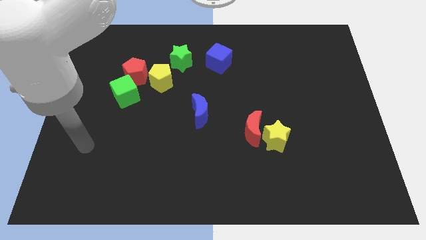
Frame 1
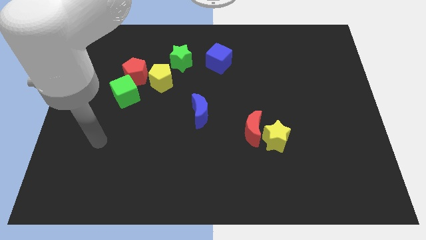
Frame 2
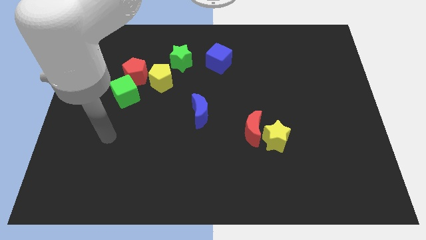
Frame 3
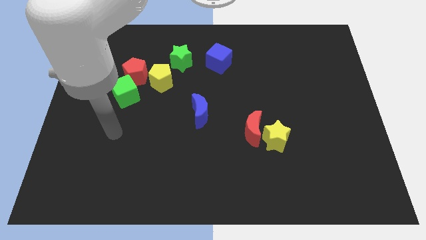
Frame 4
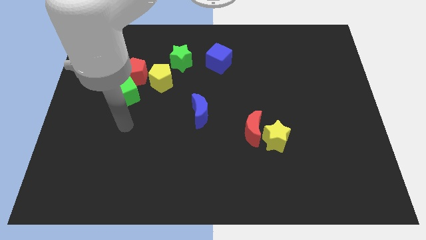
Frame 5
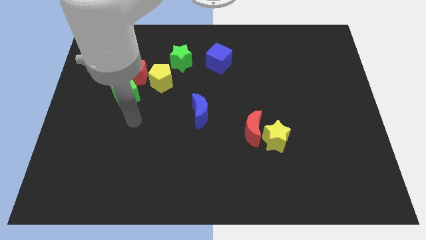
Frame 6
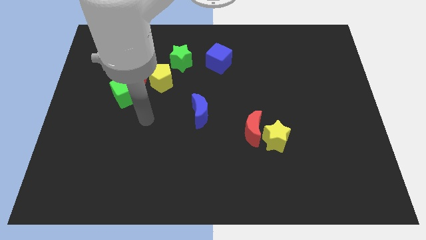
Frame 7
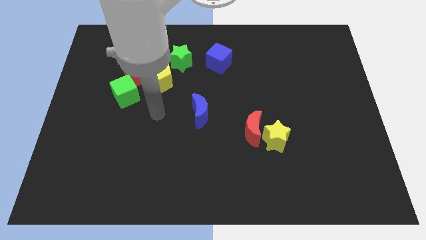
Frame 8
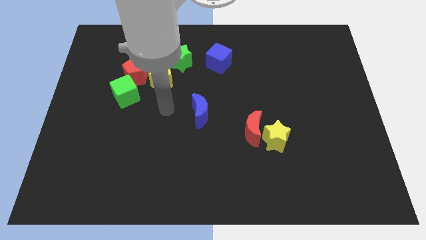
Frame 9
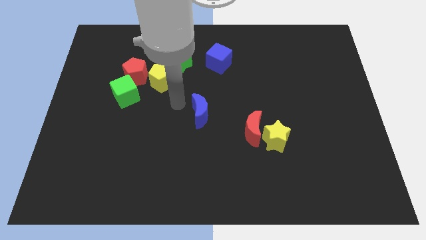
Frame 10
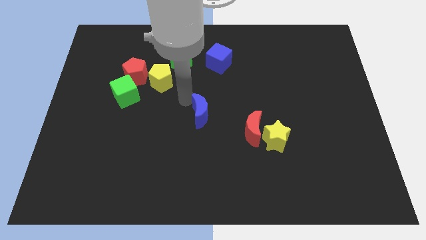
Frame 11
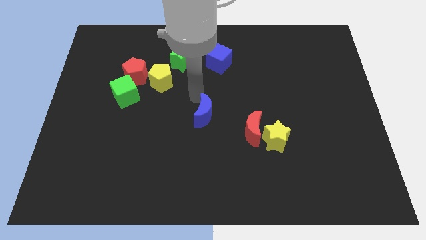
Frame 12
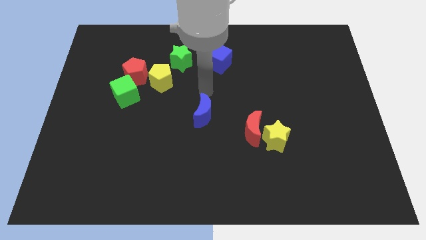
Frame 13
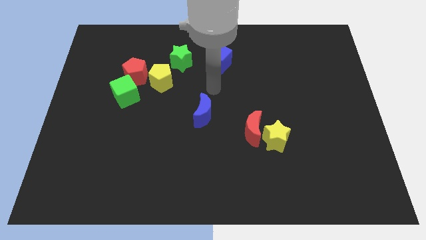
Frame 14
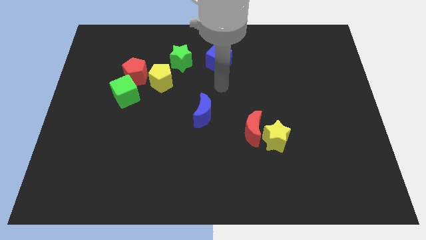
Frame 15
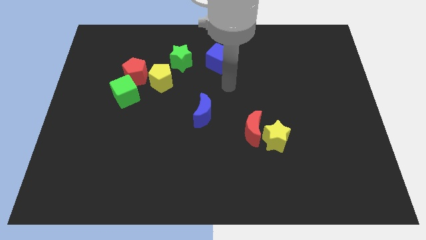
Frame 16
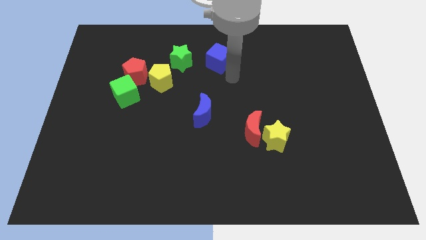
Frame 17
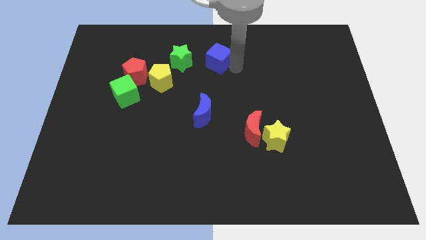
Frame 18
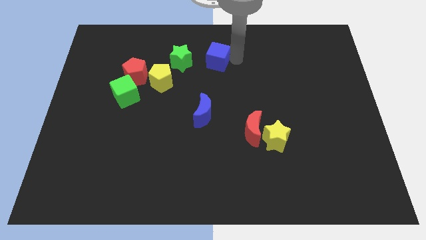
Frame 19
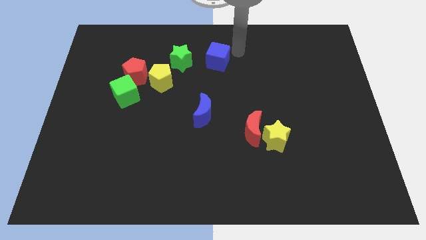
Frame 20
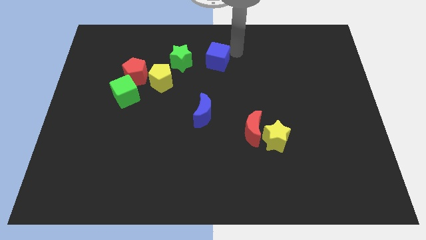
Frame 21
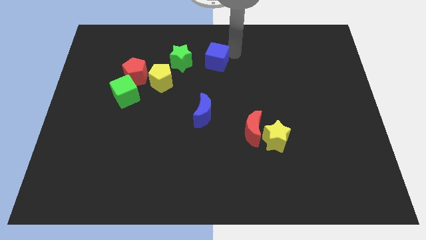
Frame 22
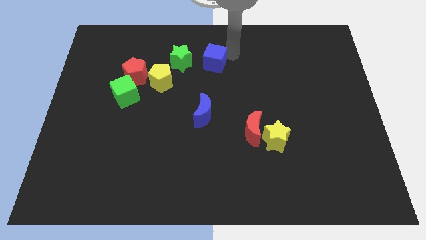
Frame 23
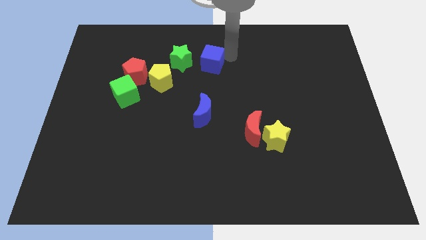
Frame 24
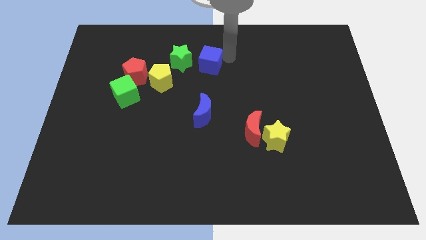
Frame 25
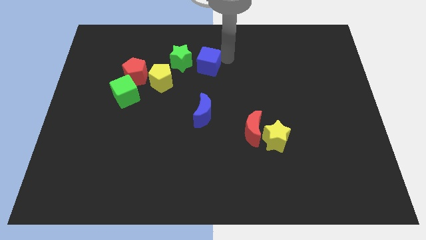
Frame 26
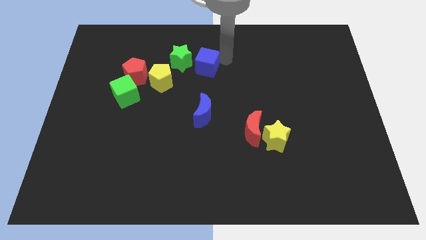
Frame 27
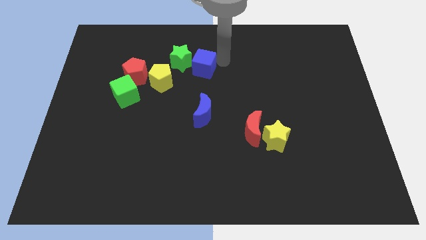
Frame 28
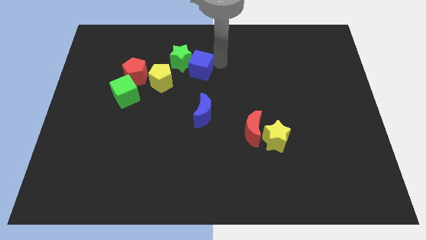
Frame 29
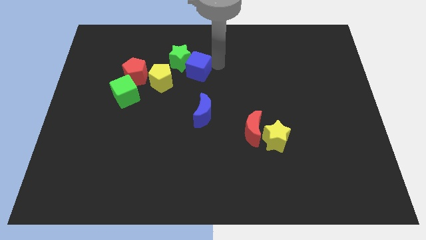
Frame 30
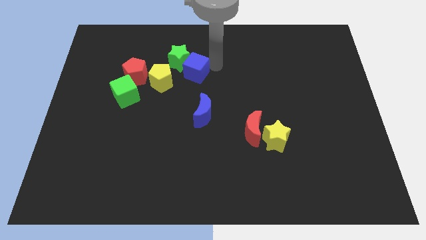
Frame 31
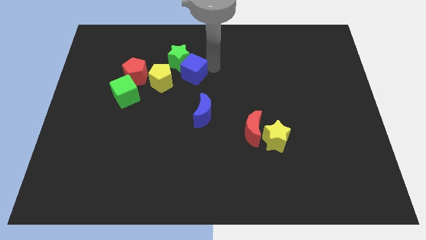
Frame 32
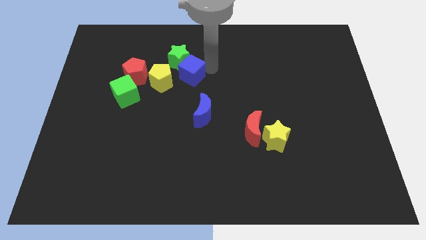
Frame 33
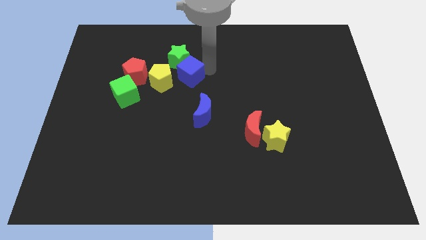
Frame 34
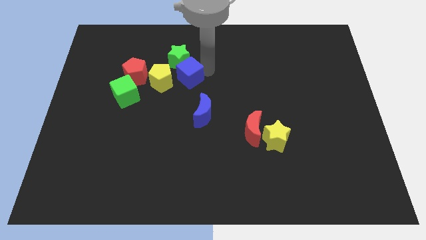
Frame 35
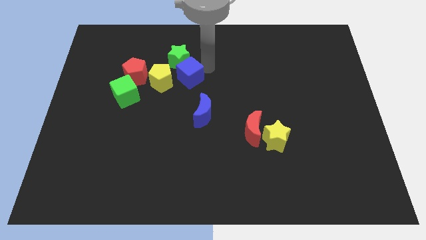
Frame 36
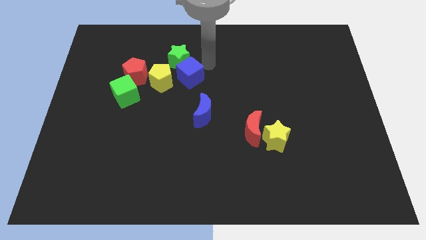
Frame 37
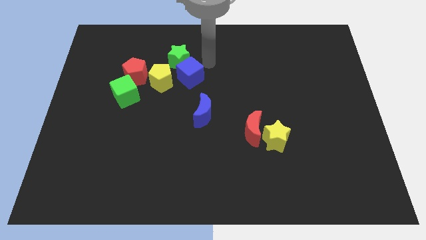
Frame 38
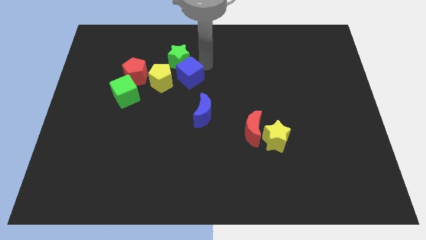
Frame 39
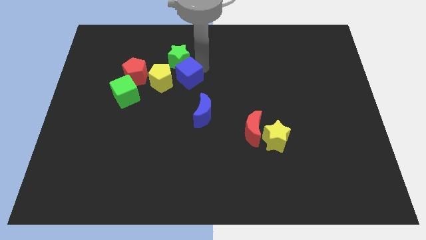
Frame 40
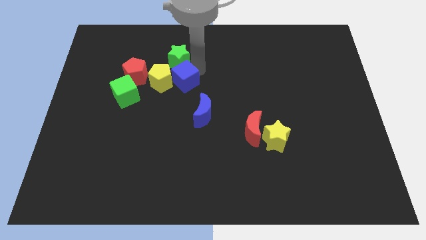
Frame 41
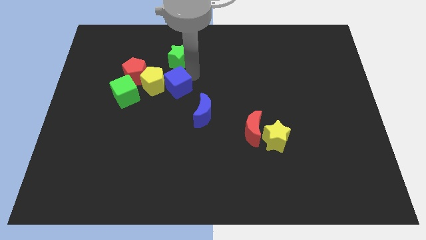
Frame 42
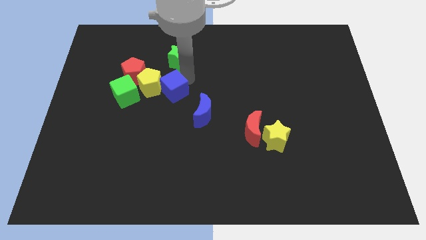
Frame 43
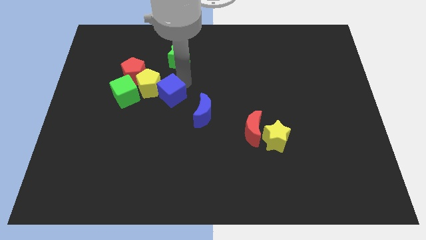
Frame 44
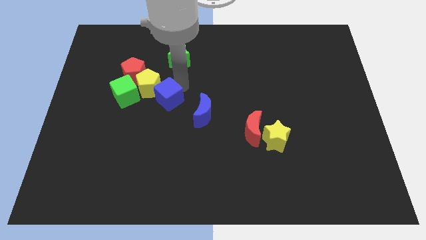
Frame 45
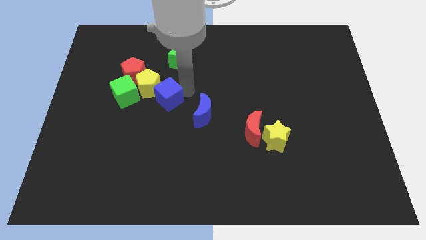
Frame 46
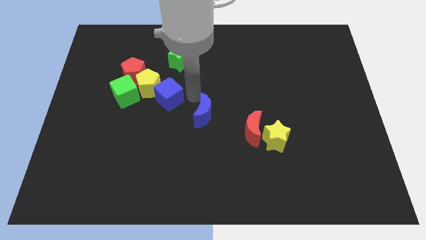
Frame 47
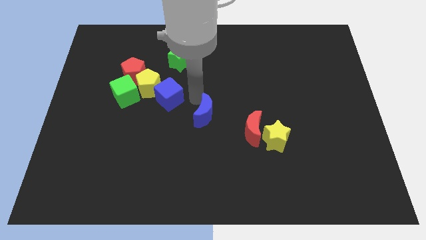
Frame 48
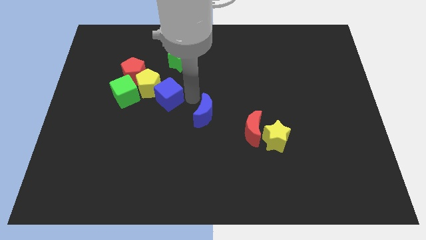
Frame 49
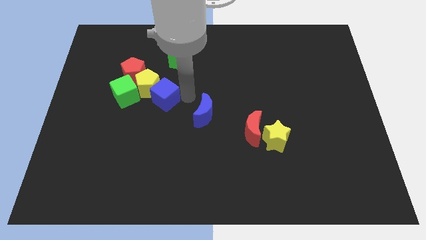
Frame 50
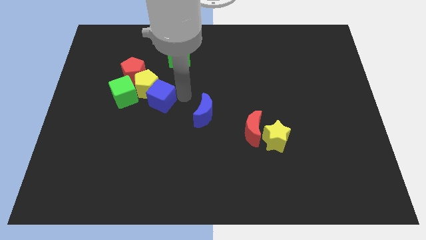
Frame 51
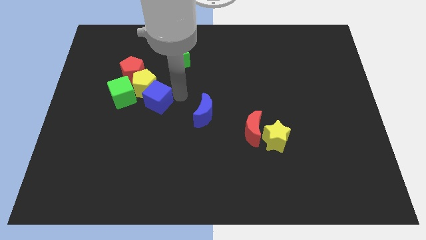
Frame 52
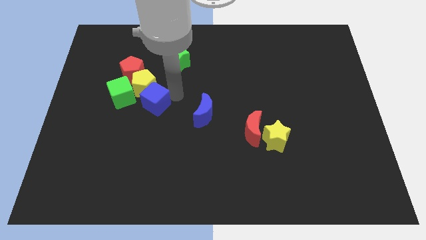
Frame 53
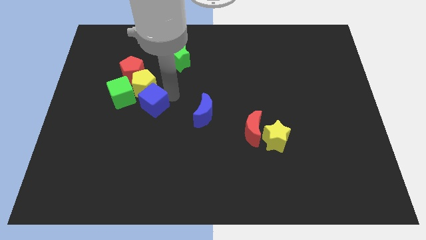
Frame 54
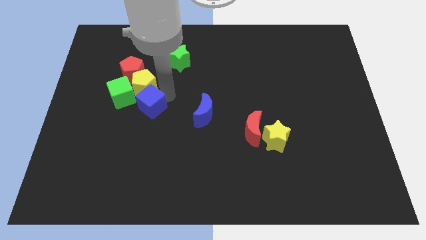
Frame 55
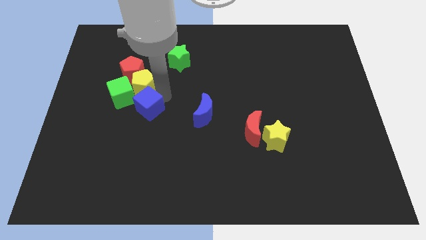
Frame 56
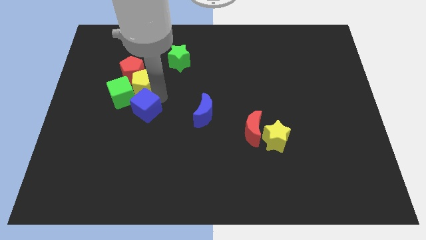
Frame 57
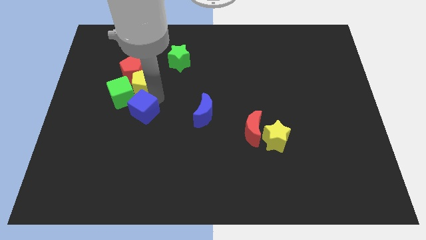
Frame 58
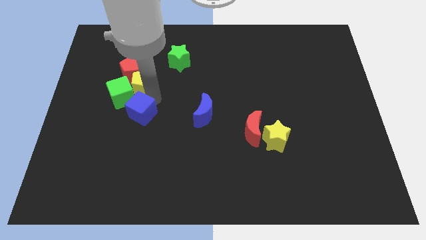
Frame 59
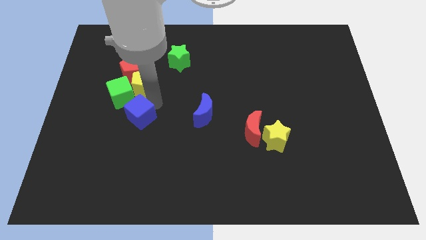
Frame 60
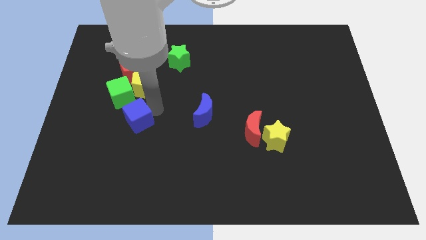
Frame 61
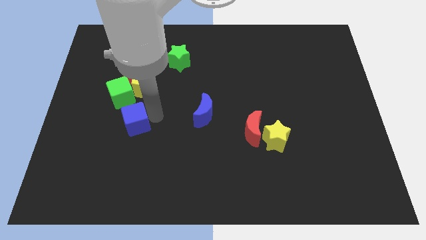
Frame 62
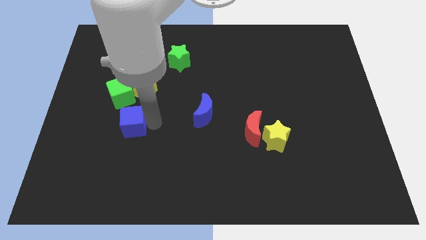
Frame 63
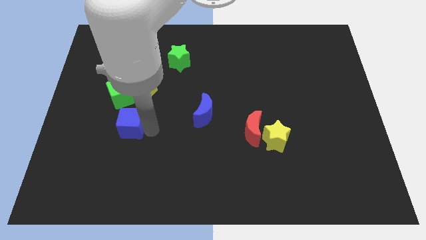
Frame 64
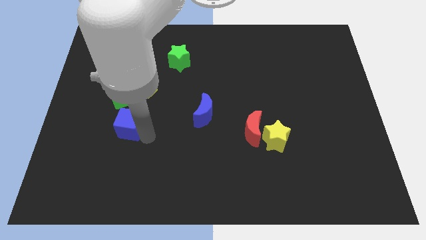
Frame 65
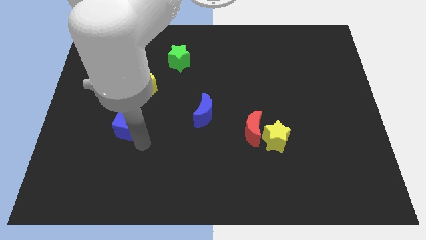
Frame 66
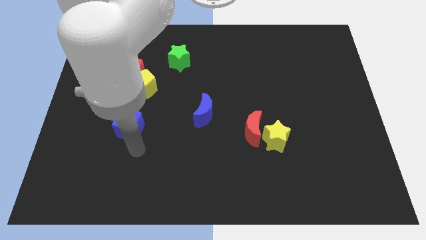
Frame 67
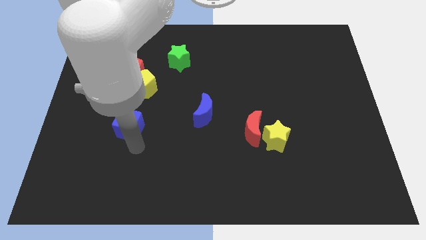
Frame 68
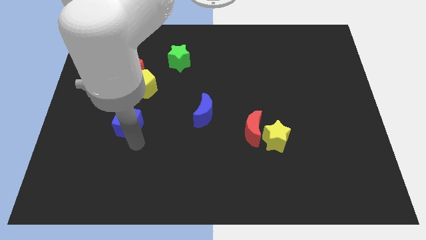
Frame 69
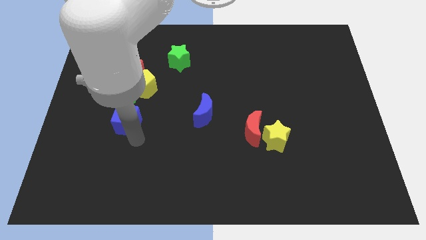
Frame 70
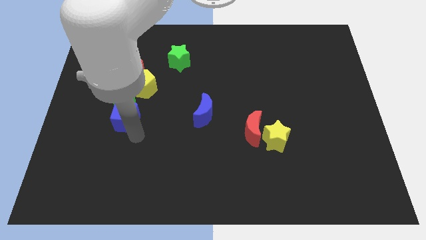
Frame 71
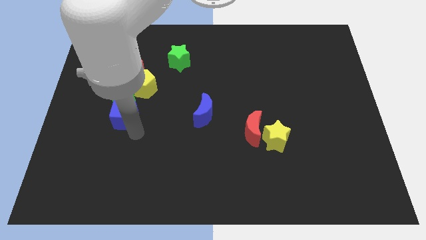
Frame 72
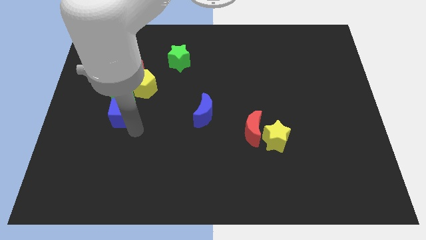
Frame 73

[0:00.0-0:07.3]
slide the blue cube next to the green cube
